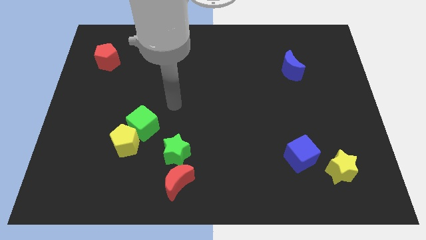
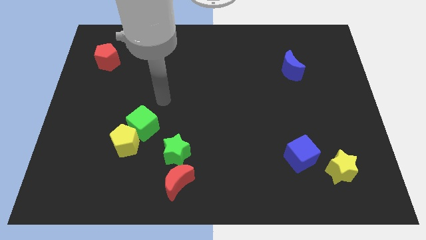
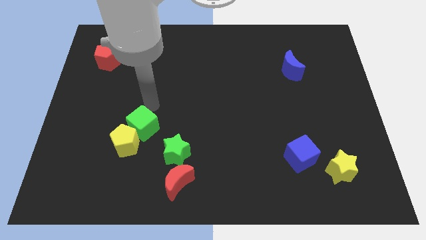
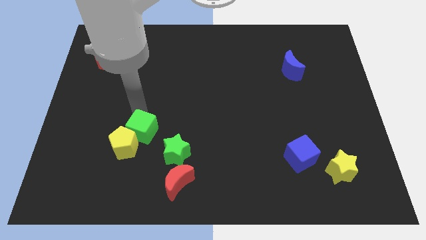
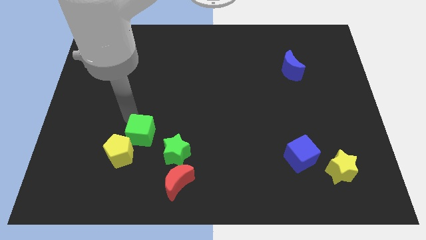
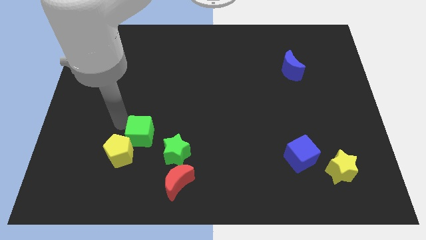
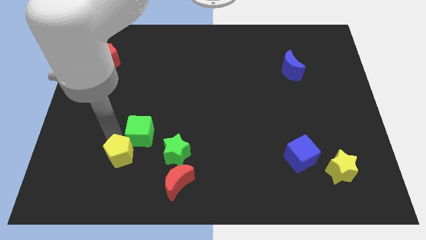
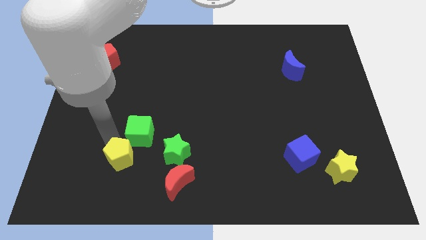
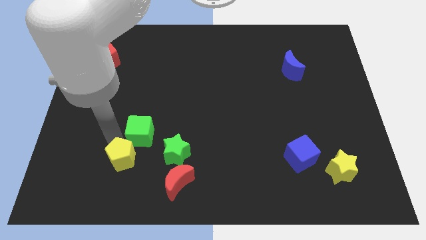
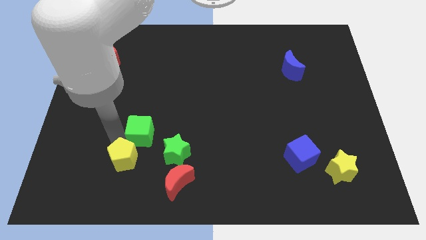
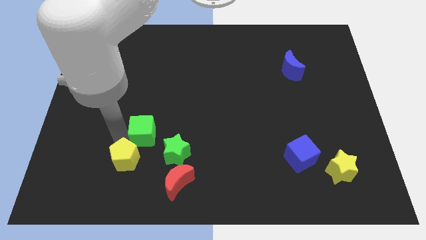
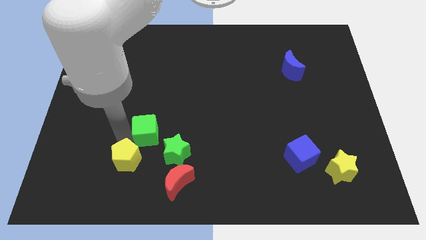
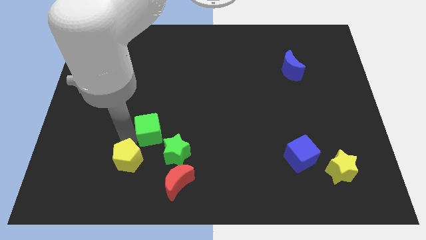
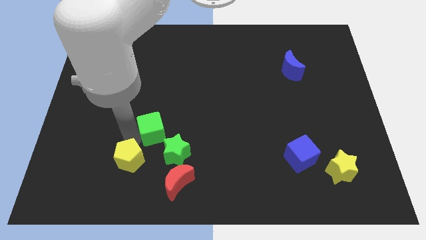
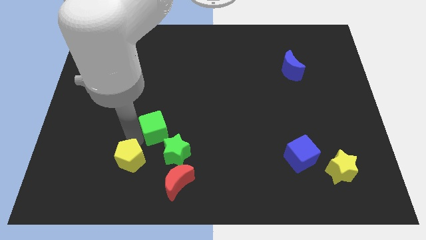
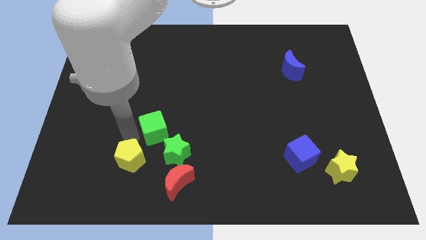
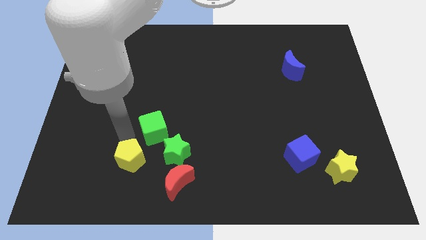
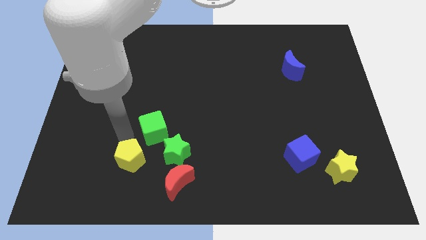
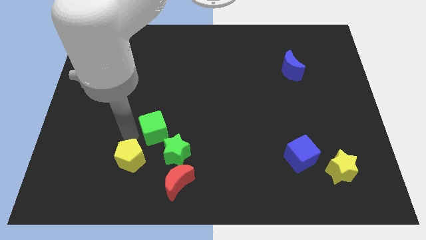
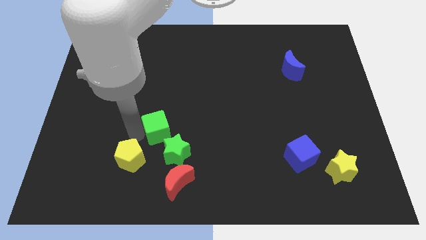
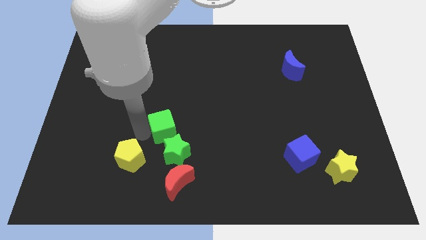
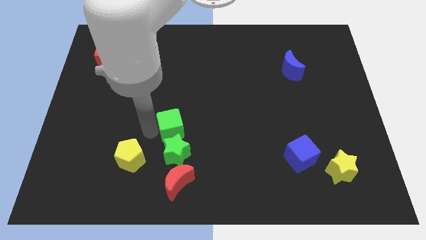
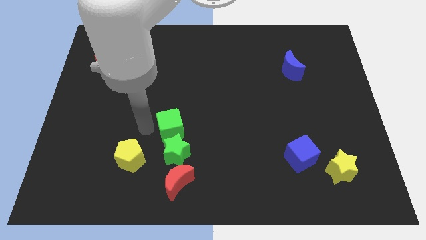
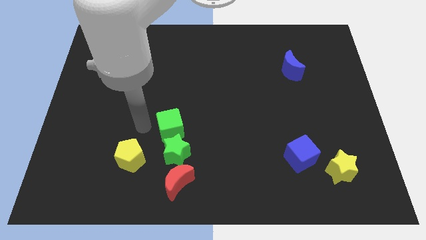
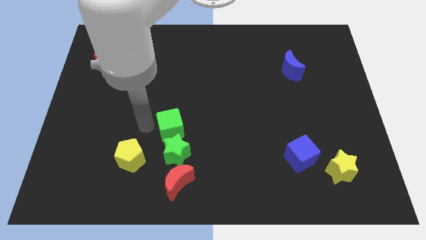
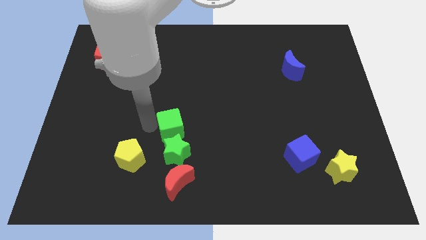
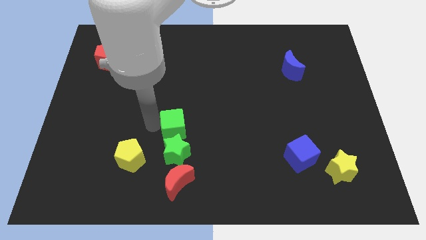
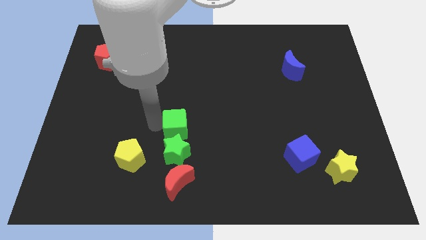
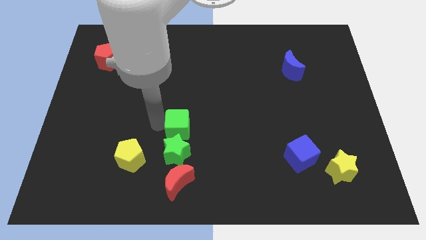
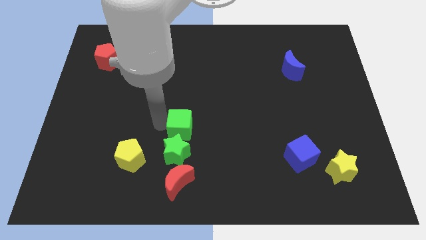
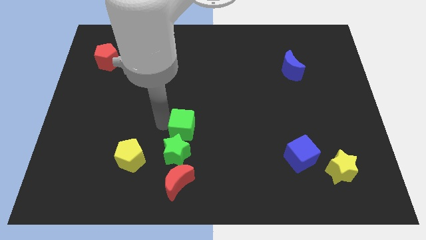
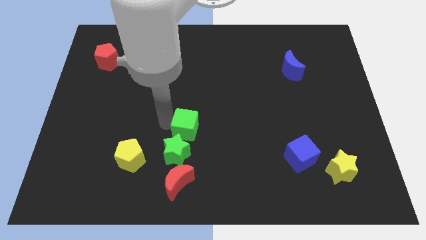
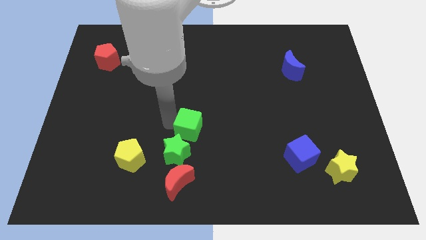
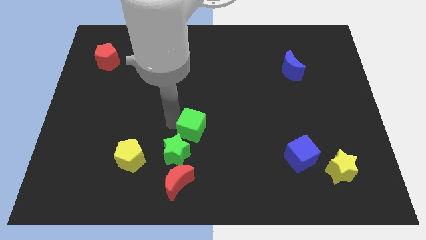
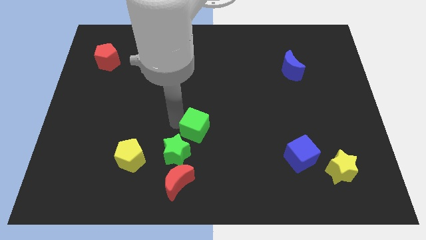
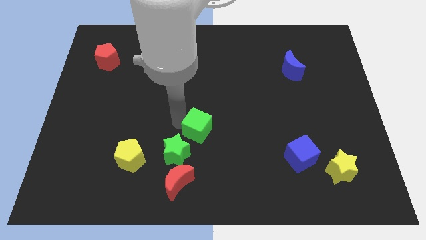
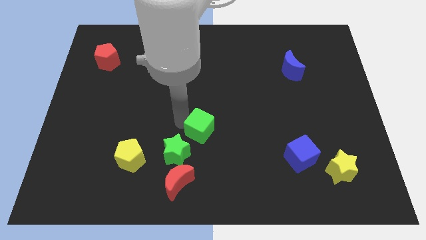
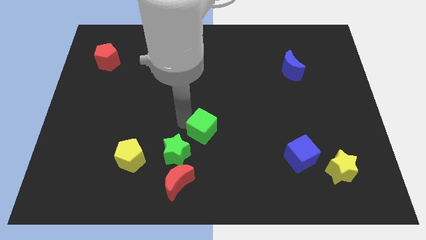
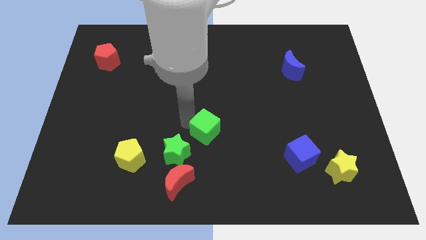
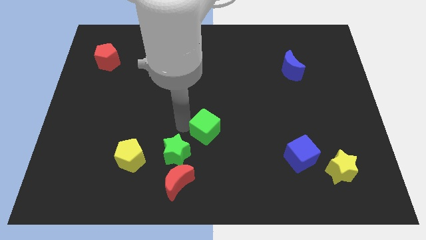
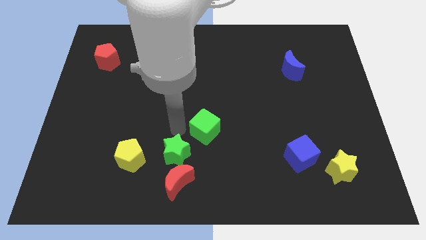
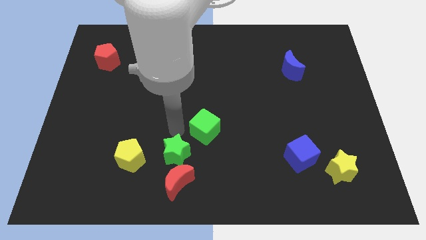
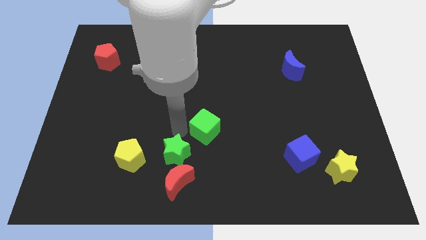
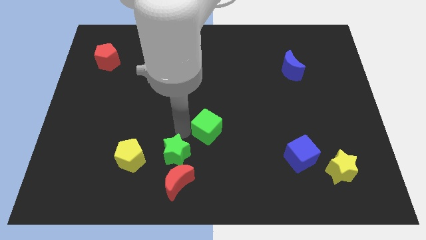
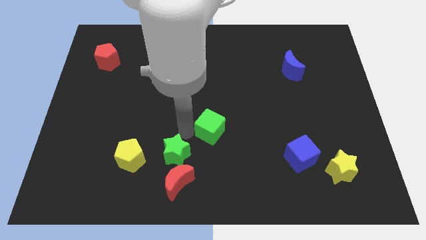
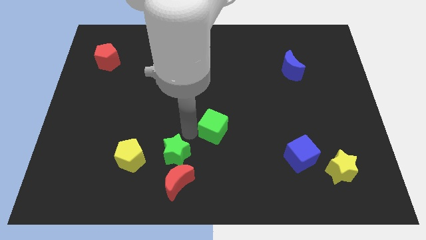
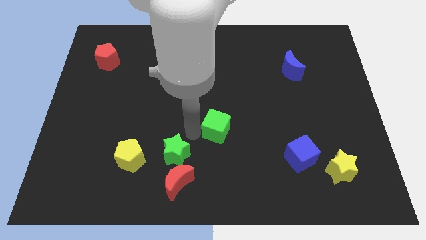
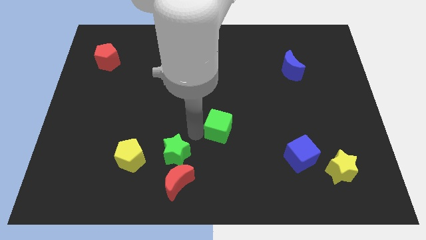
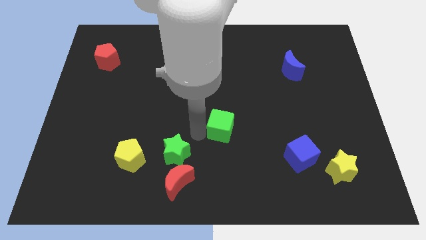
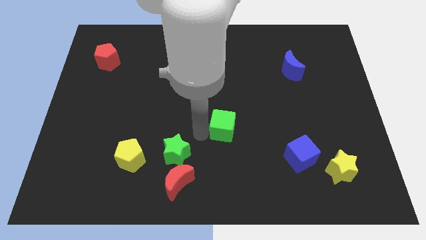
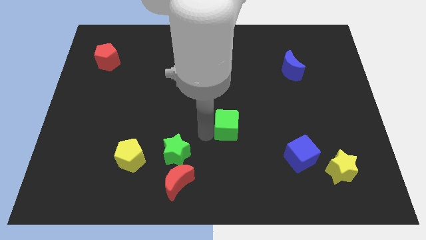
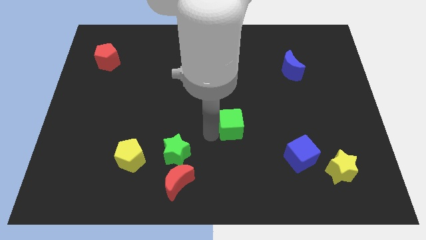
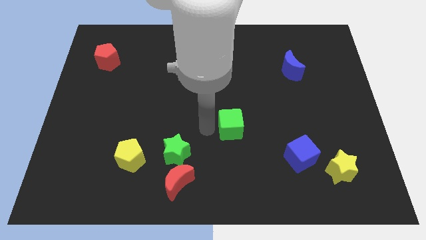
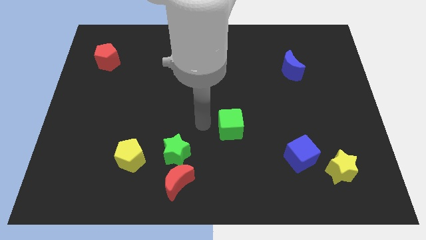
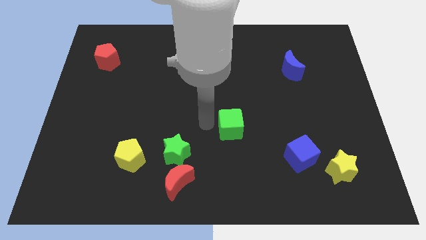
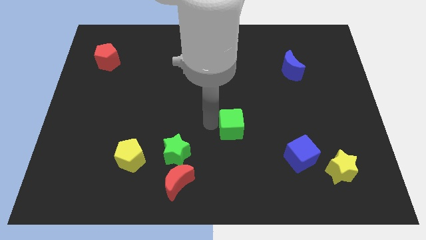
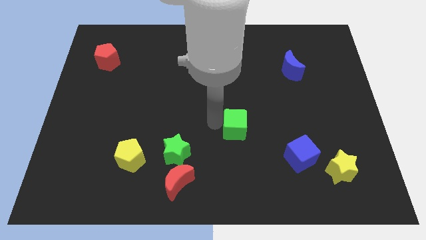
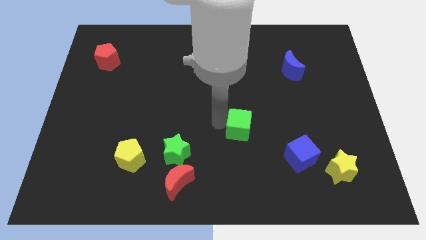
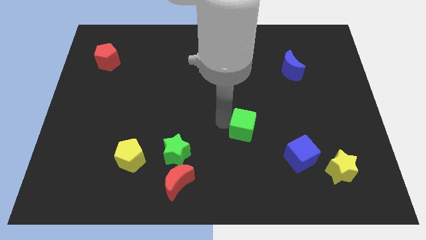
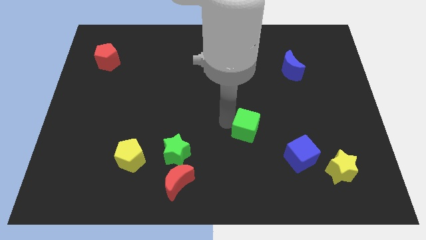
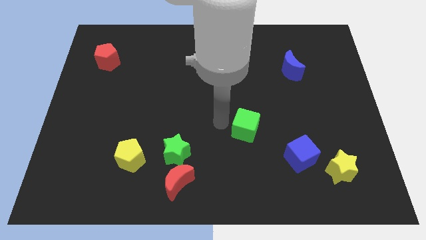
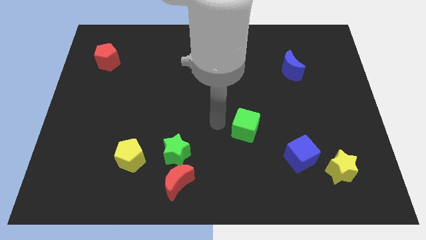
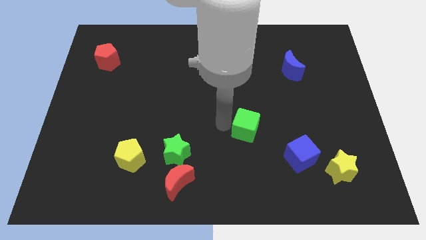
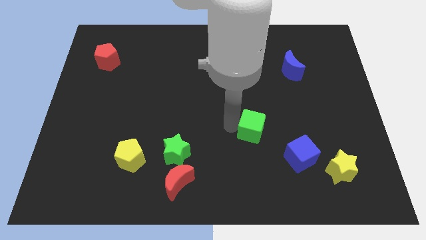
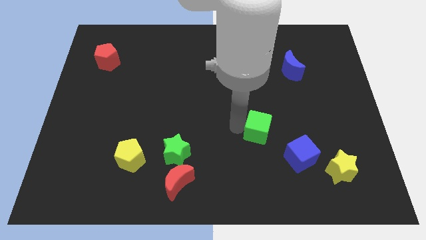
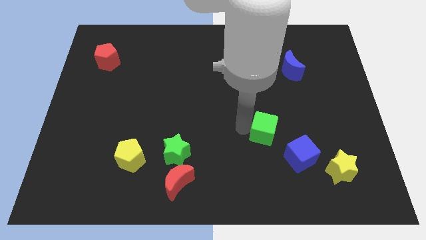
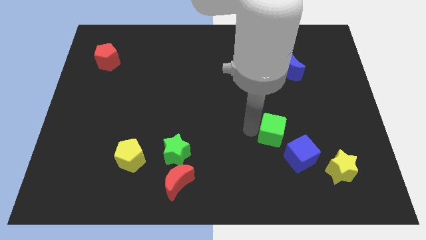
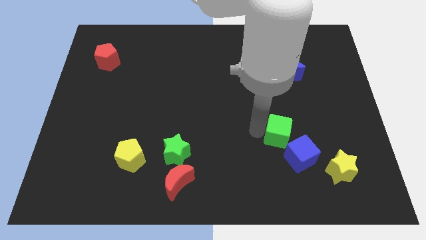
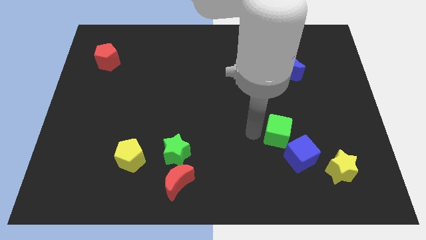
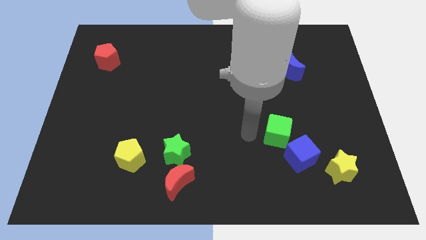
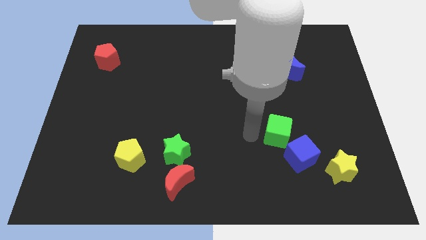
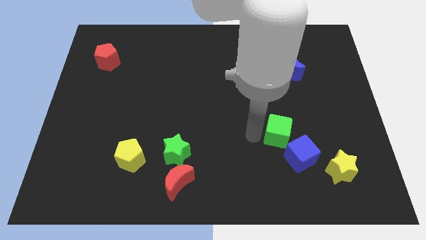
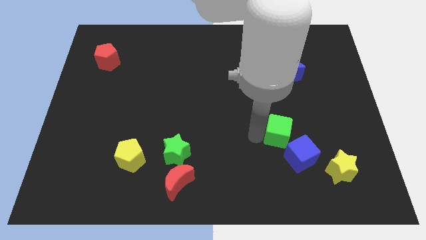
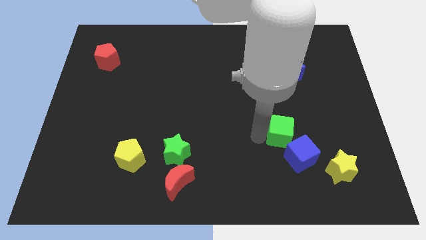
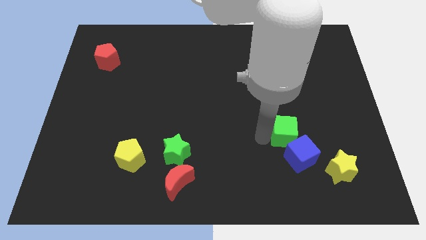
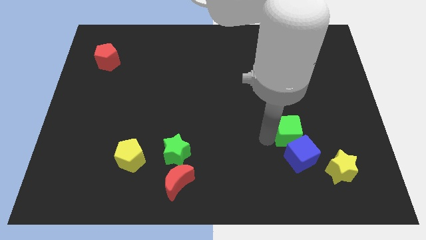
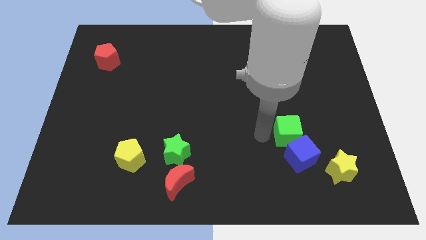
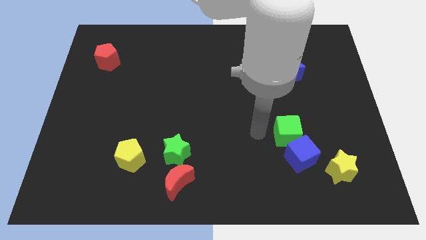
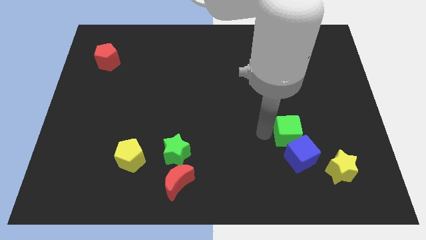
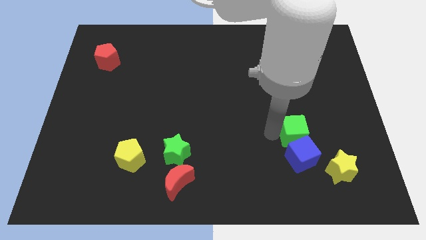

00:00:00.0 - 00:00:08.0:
push the green cube diagonally up and to the right of the blue cube
